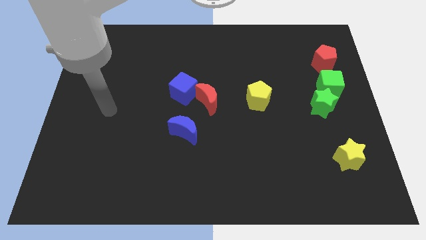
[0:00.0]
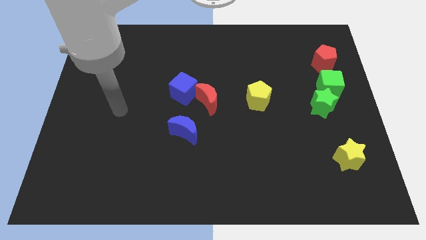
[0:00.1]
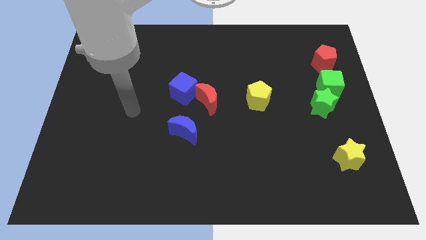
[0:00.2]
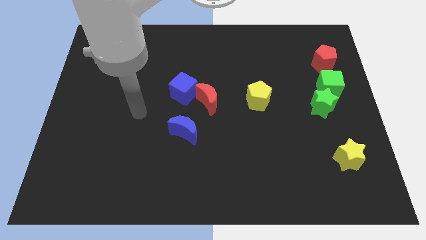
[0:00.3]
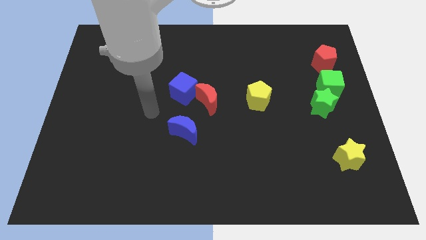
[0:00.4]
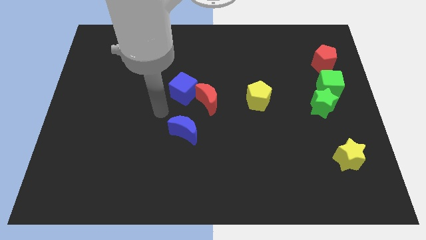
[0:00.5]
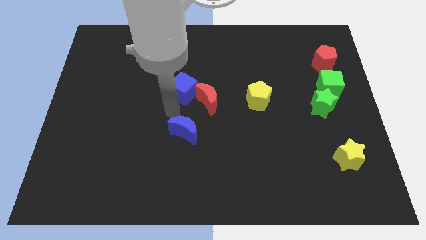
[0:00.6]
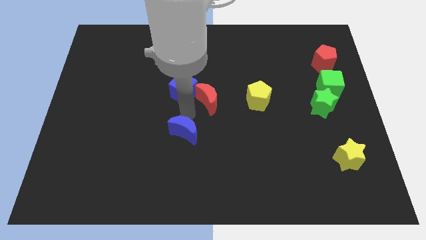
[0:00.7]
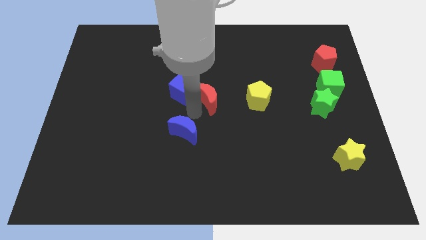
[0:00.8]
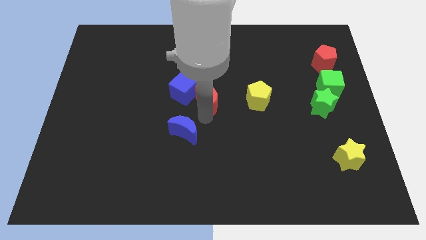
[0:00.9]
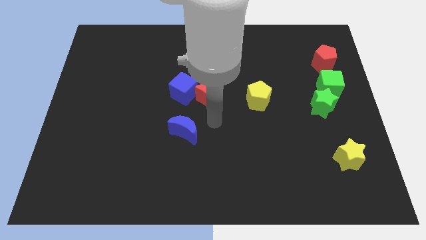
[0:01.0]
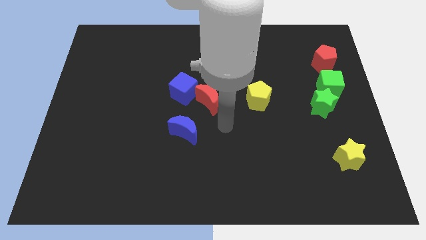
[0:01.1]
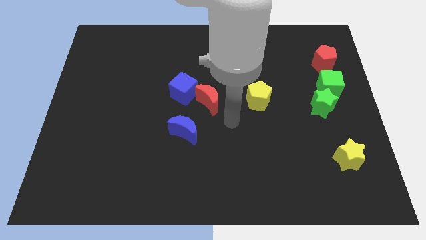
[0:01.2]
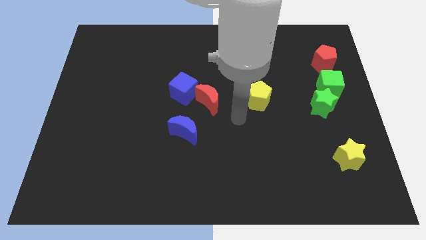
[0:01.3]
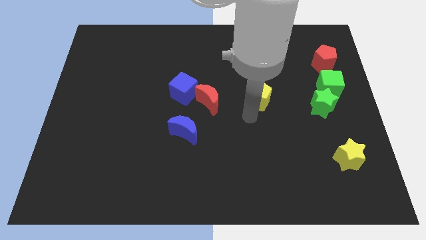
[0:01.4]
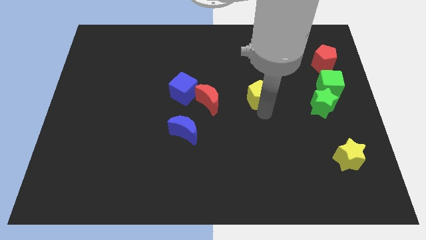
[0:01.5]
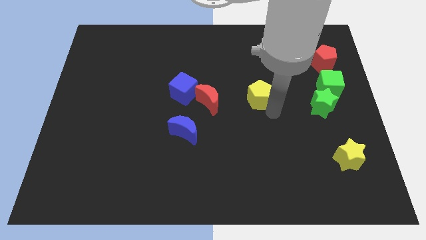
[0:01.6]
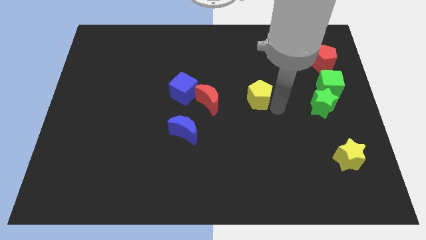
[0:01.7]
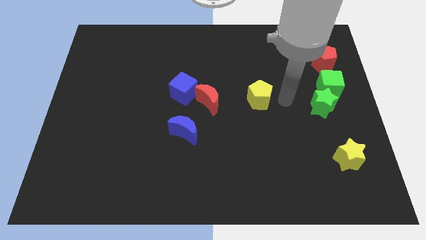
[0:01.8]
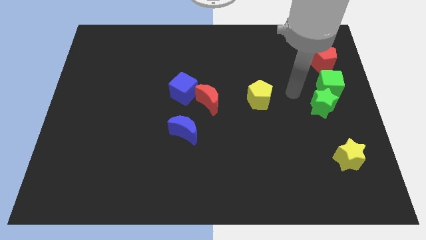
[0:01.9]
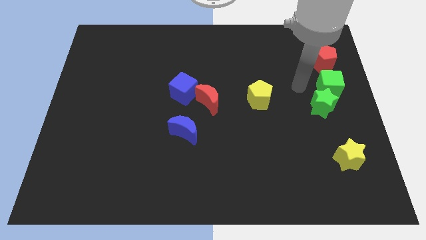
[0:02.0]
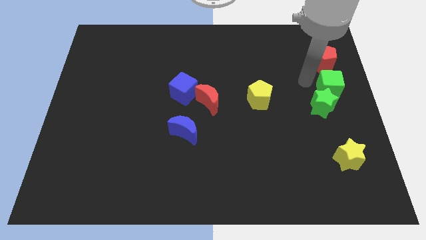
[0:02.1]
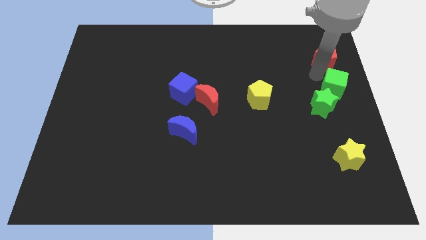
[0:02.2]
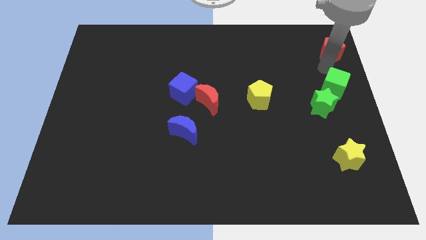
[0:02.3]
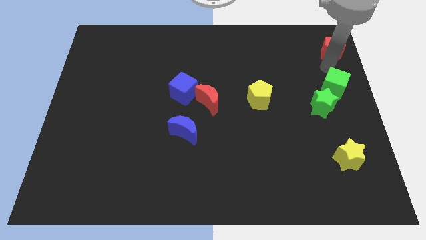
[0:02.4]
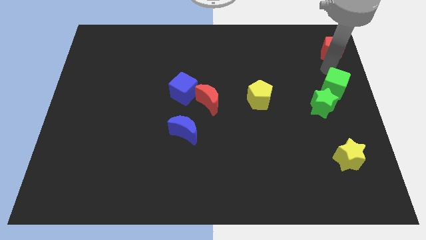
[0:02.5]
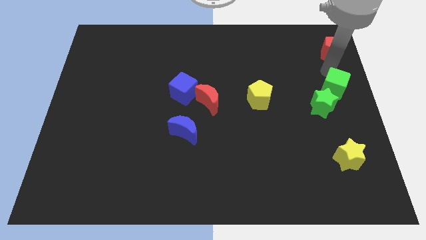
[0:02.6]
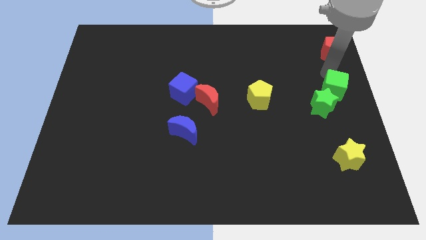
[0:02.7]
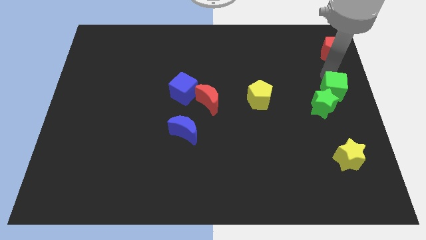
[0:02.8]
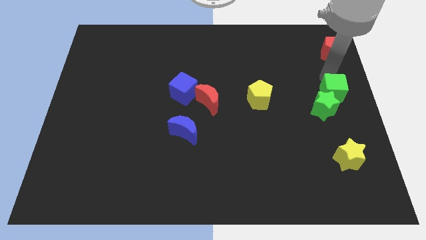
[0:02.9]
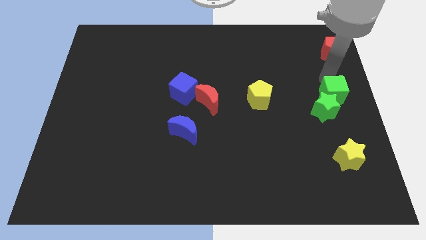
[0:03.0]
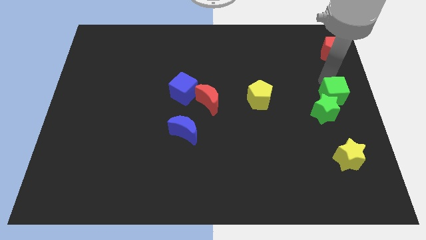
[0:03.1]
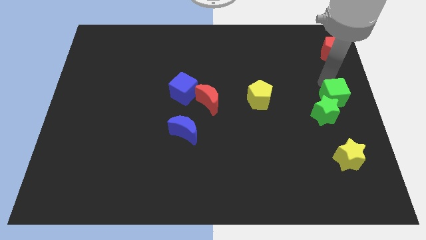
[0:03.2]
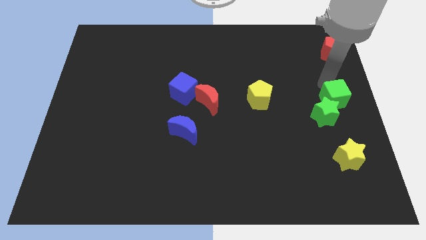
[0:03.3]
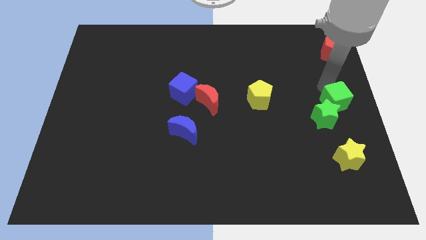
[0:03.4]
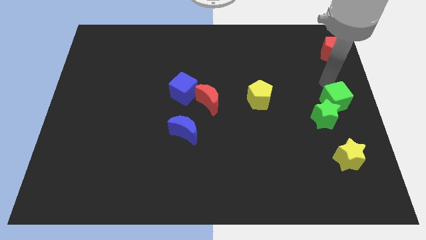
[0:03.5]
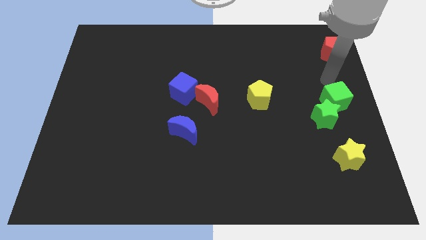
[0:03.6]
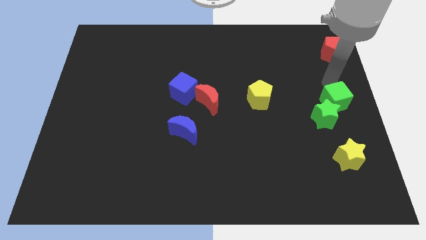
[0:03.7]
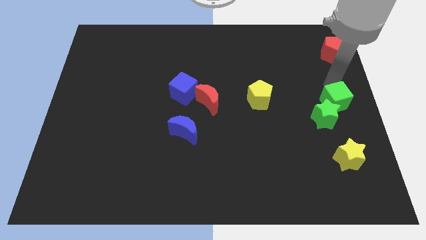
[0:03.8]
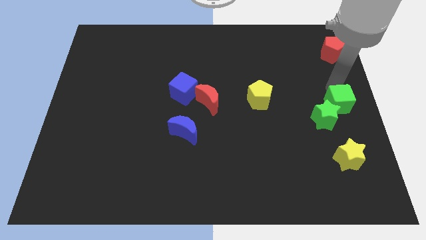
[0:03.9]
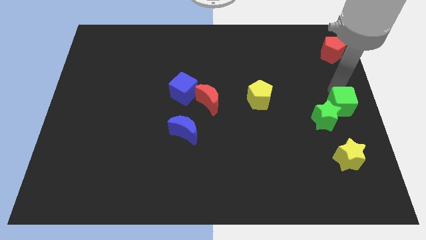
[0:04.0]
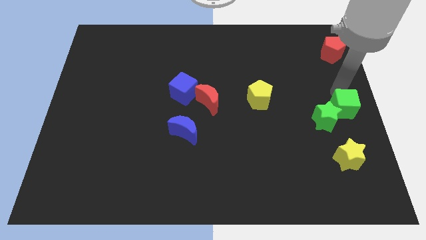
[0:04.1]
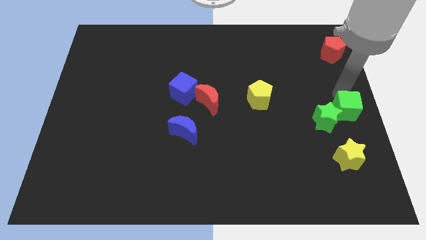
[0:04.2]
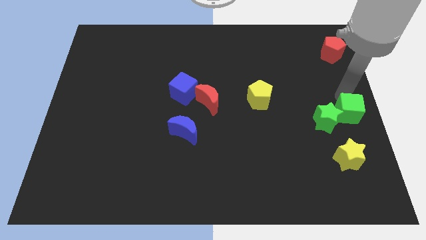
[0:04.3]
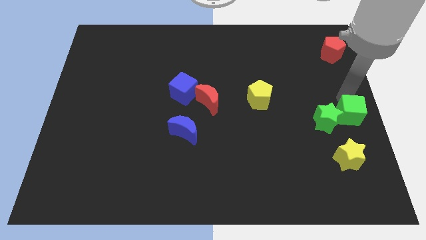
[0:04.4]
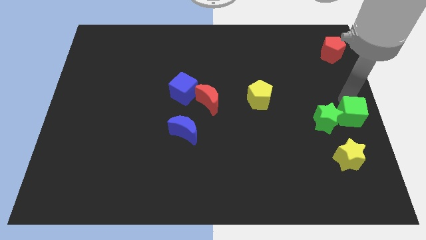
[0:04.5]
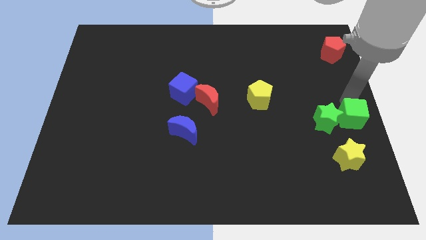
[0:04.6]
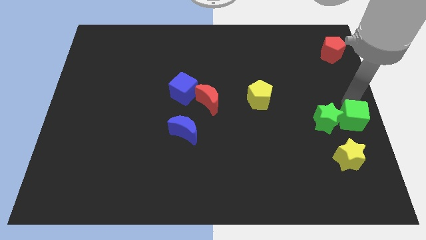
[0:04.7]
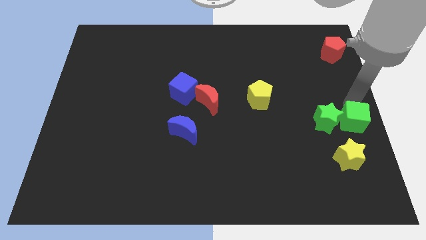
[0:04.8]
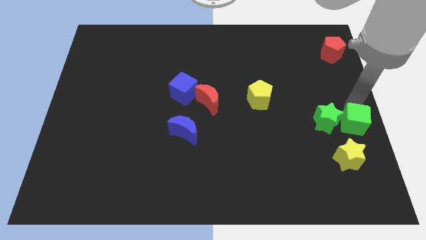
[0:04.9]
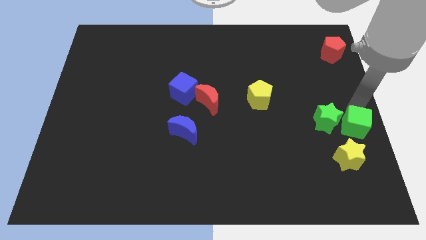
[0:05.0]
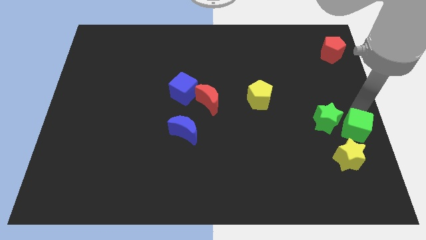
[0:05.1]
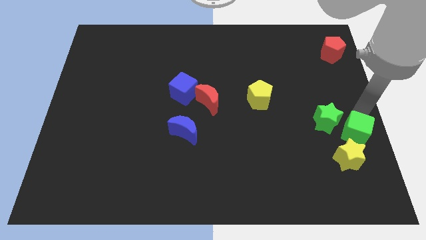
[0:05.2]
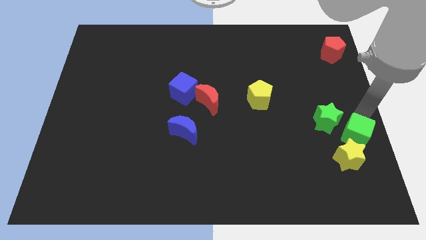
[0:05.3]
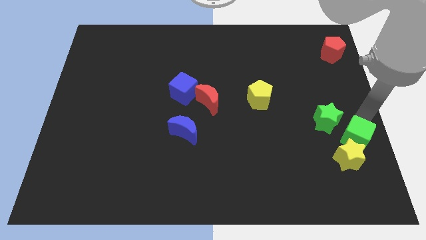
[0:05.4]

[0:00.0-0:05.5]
push the green cube to the yellow star

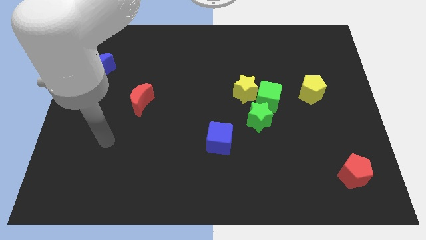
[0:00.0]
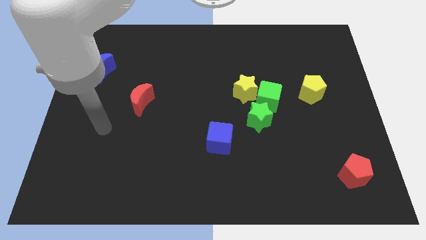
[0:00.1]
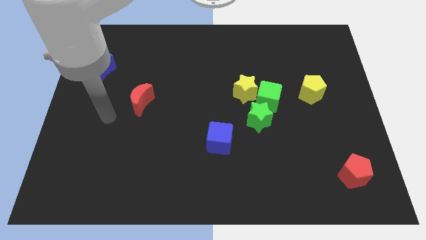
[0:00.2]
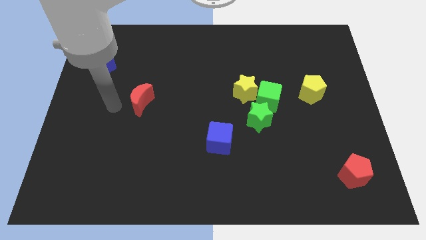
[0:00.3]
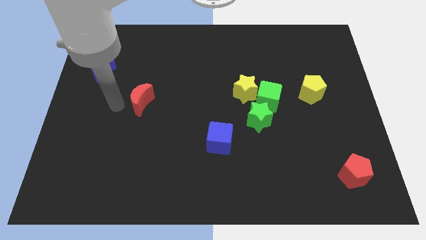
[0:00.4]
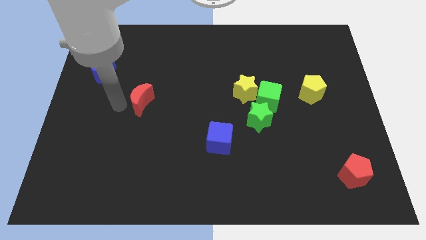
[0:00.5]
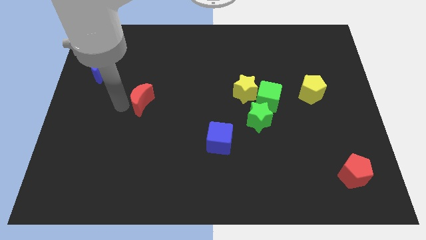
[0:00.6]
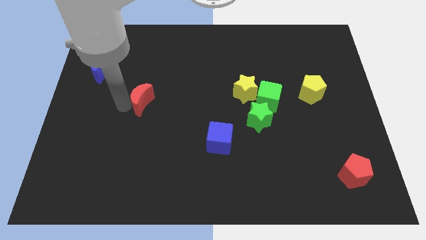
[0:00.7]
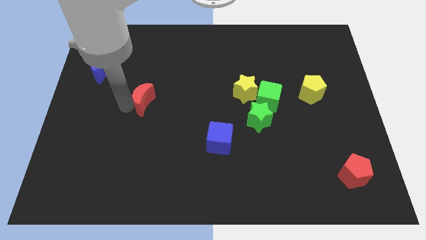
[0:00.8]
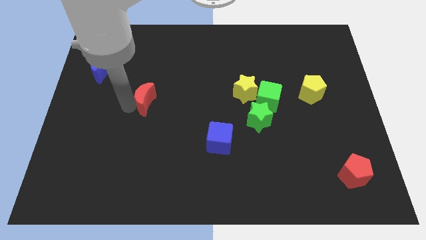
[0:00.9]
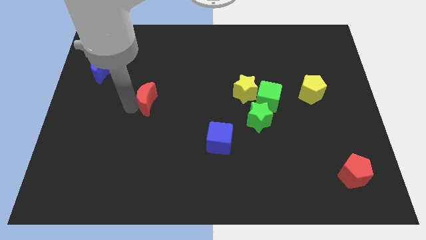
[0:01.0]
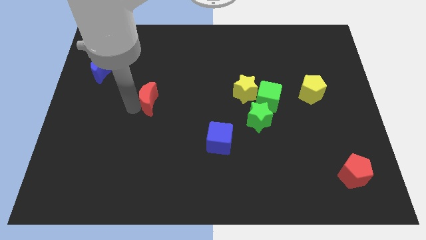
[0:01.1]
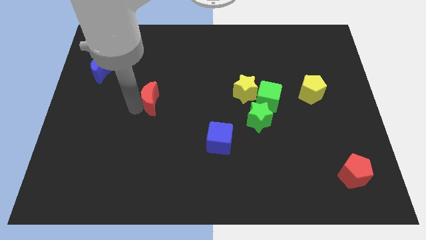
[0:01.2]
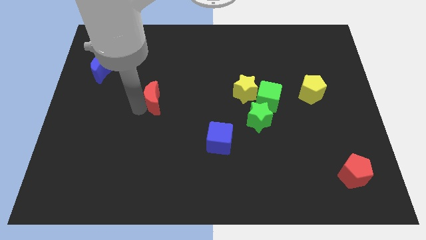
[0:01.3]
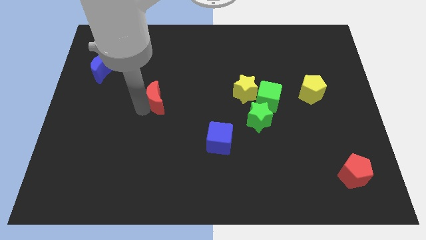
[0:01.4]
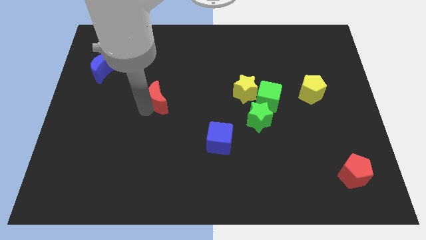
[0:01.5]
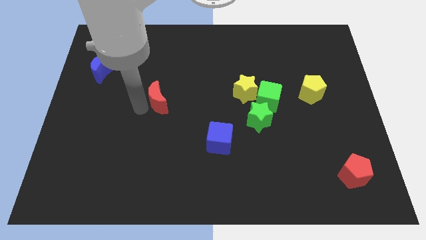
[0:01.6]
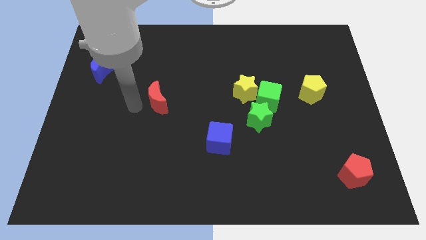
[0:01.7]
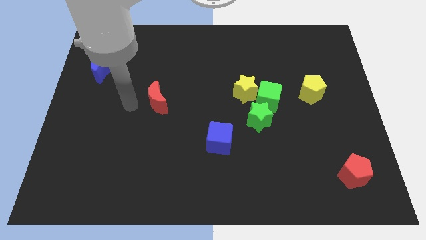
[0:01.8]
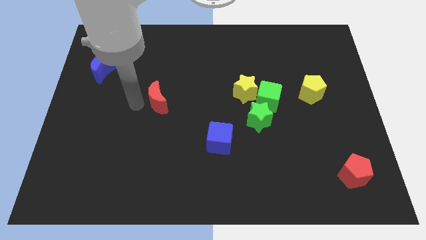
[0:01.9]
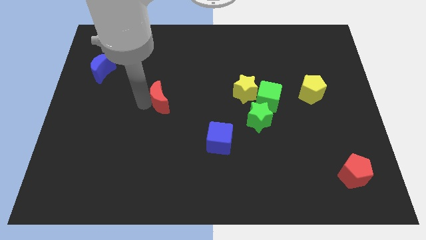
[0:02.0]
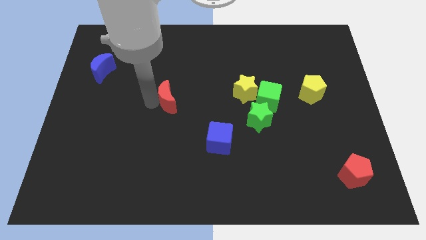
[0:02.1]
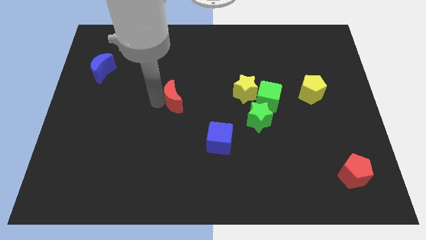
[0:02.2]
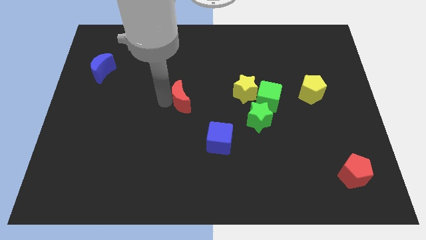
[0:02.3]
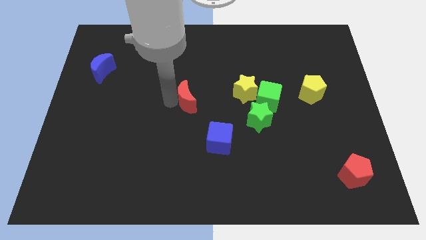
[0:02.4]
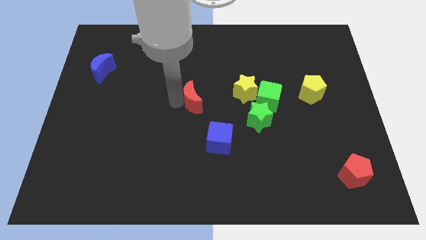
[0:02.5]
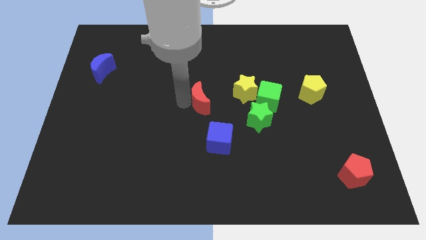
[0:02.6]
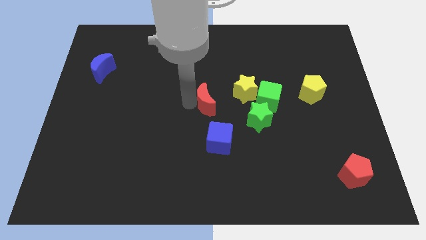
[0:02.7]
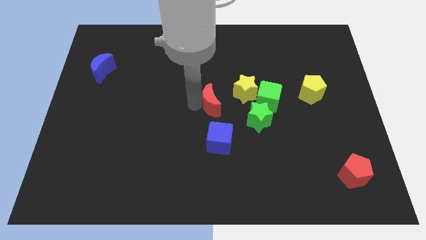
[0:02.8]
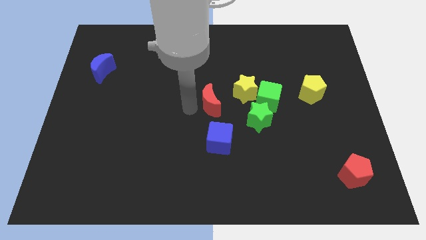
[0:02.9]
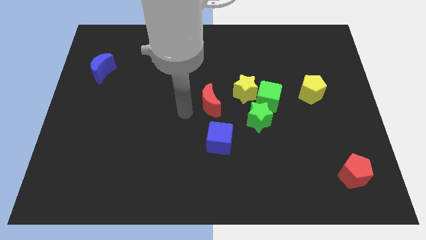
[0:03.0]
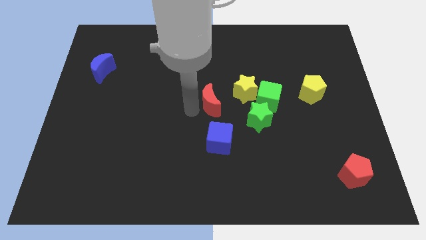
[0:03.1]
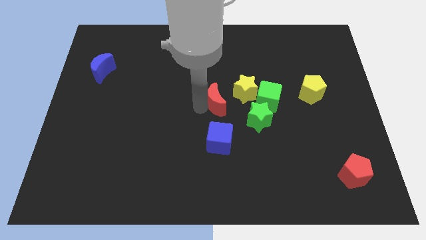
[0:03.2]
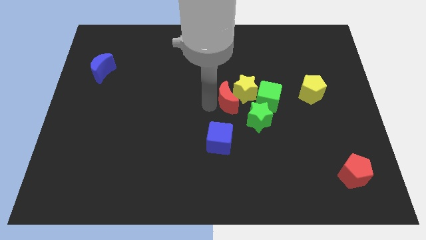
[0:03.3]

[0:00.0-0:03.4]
push the red moon close to the yellow star
